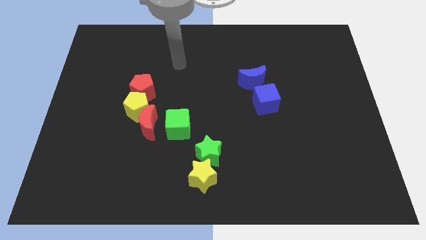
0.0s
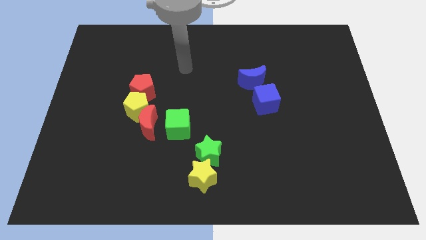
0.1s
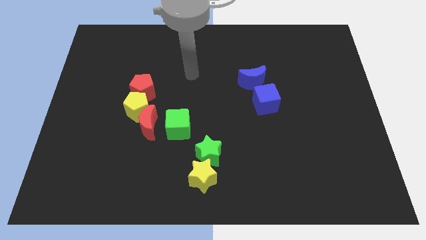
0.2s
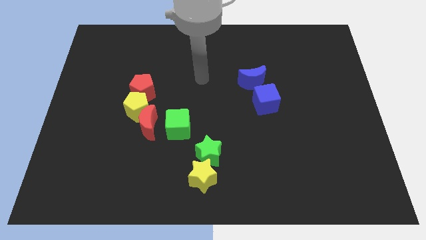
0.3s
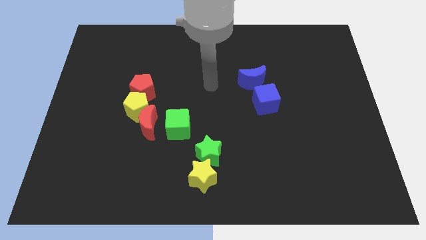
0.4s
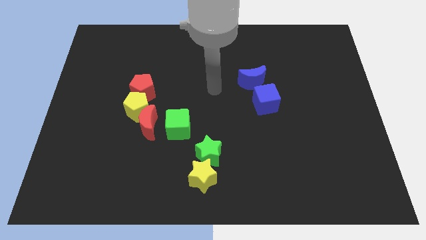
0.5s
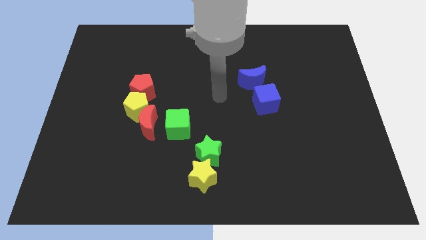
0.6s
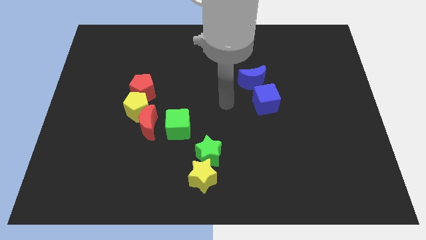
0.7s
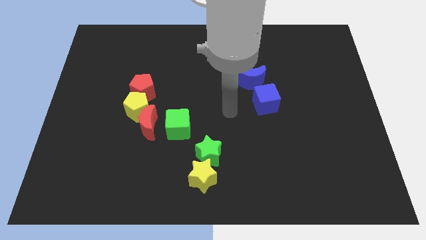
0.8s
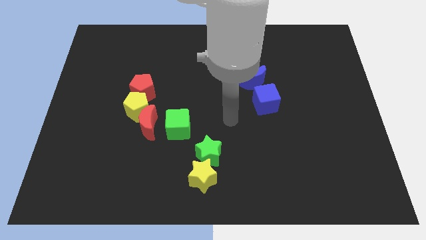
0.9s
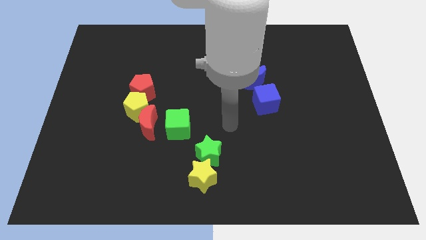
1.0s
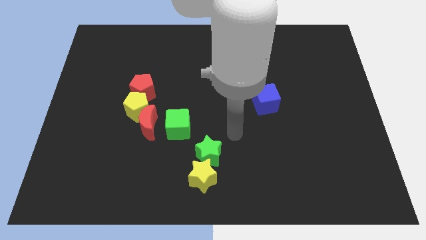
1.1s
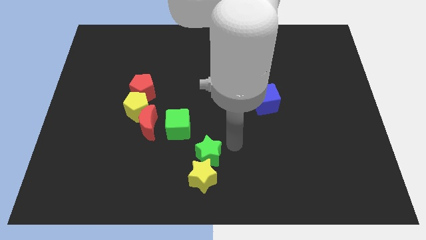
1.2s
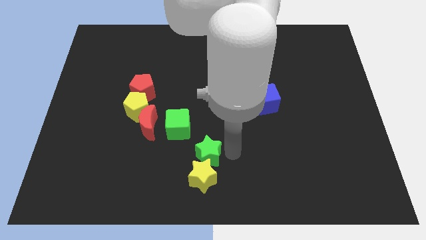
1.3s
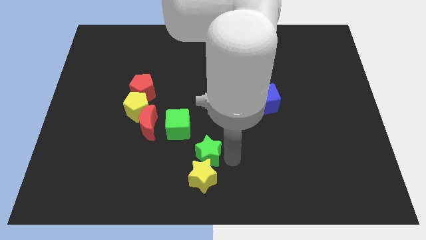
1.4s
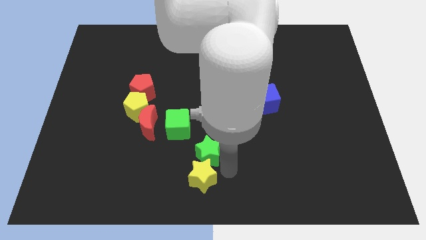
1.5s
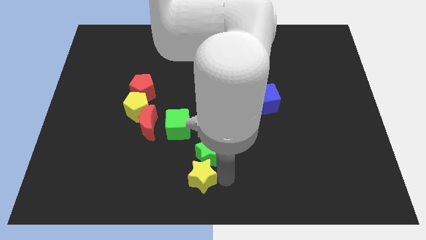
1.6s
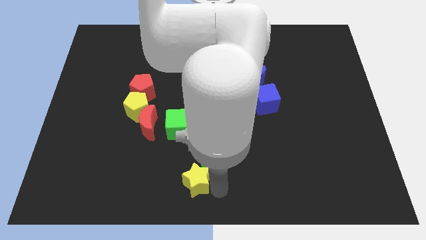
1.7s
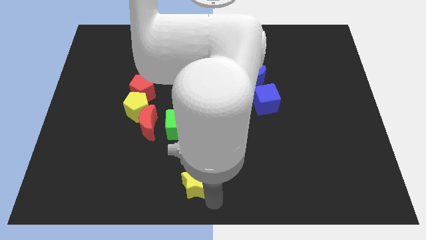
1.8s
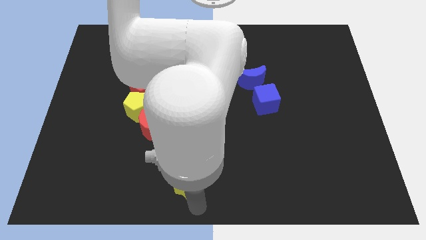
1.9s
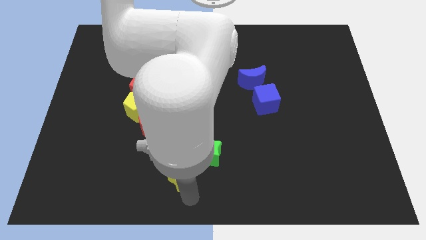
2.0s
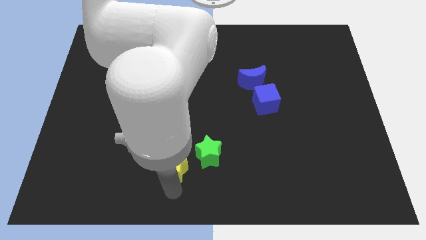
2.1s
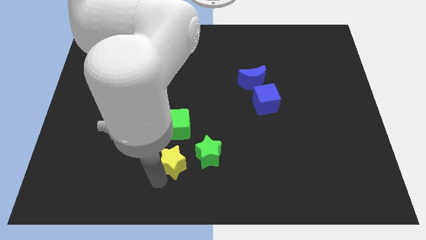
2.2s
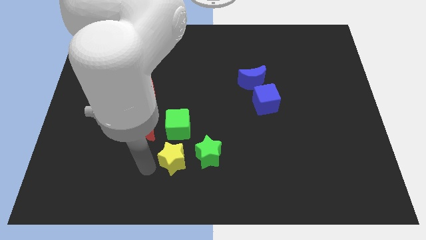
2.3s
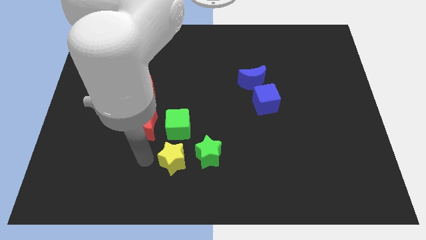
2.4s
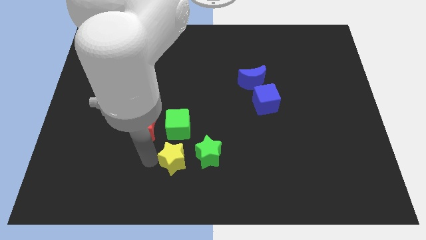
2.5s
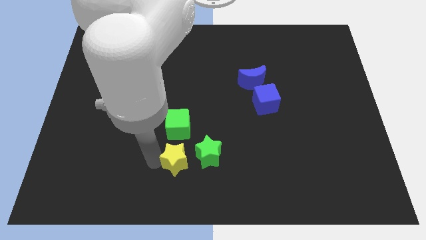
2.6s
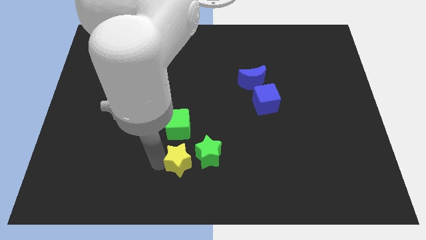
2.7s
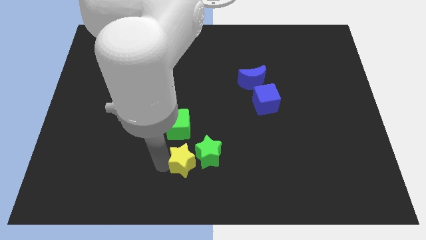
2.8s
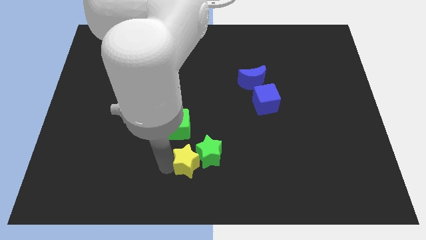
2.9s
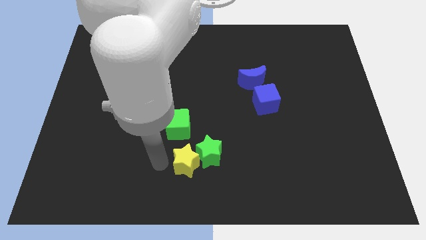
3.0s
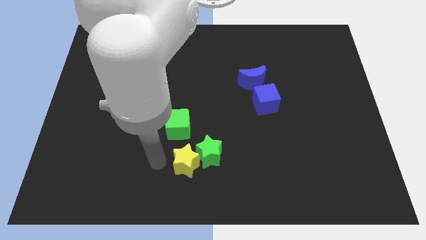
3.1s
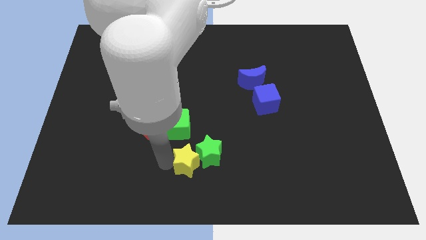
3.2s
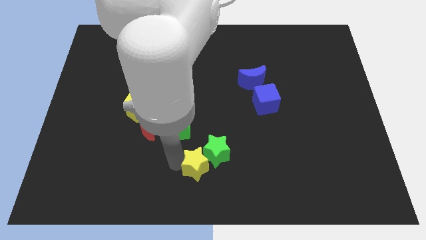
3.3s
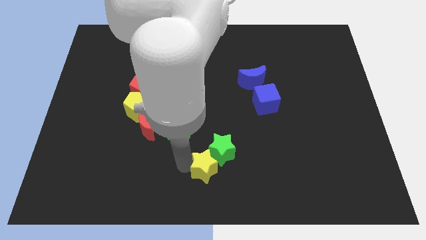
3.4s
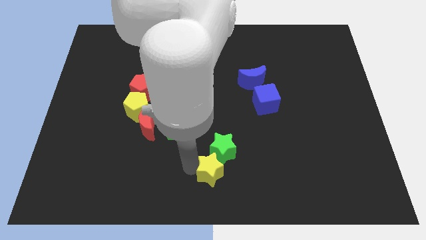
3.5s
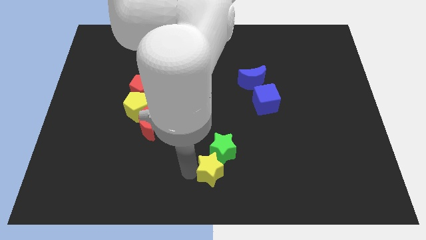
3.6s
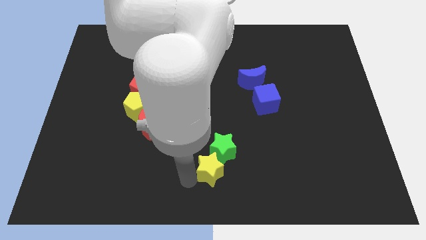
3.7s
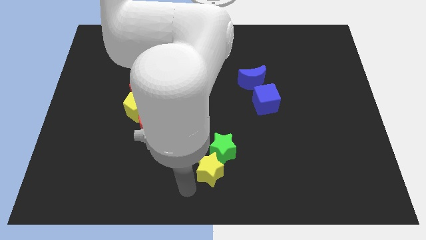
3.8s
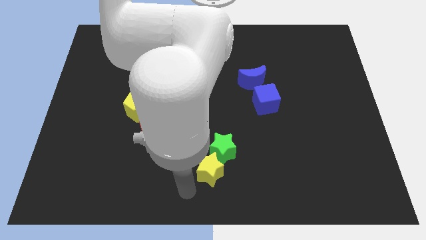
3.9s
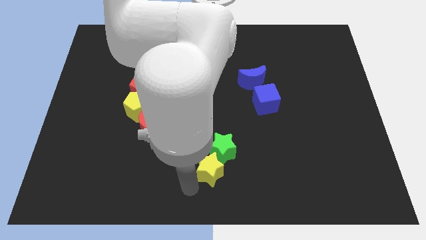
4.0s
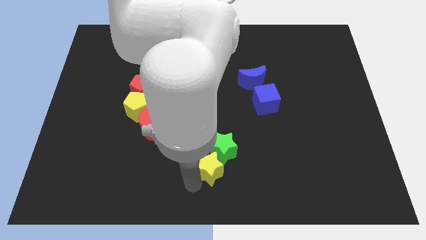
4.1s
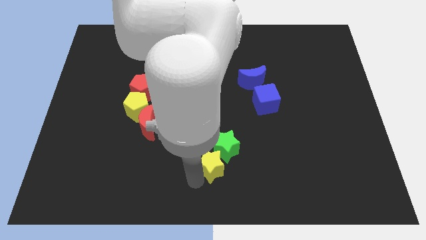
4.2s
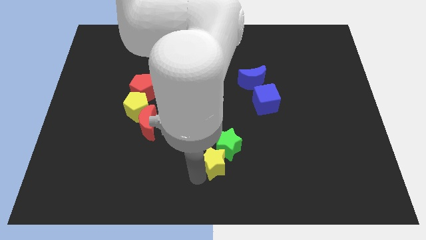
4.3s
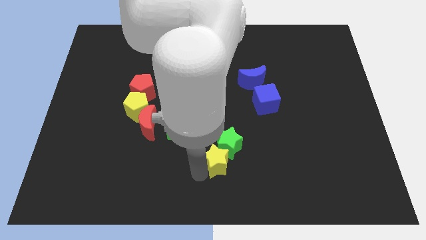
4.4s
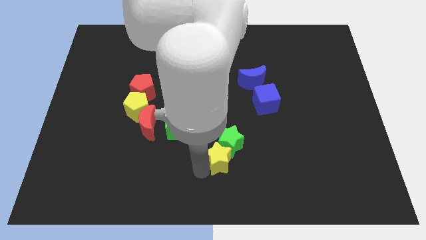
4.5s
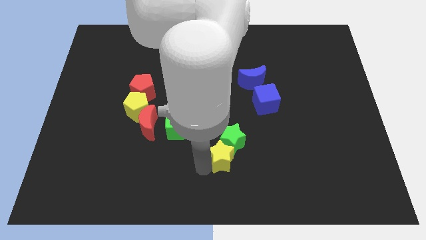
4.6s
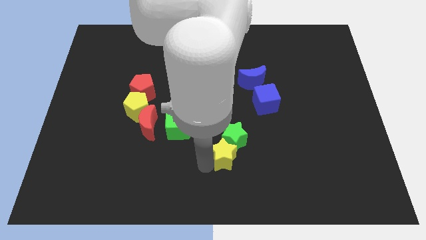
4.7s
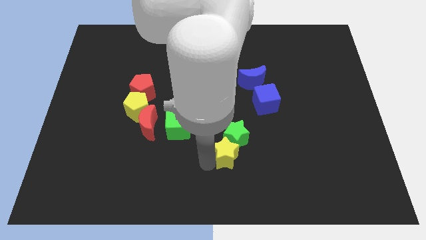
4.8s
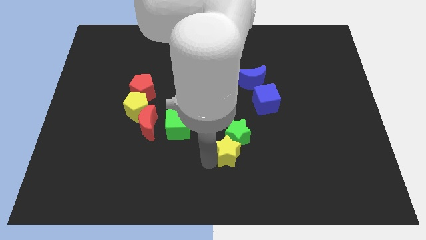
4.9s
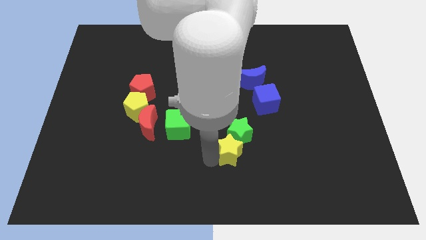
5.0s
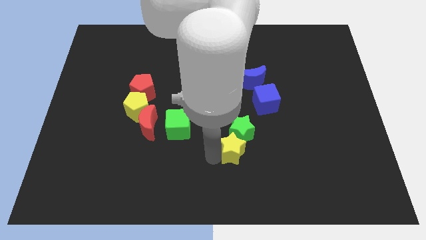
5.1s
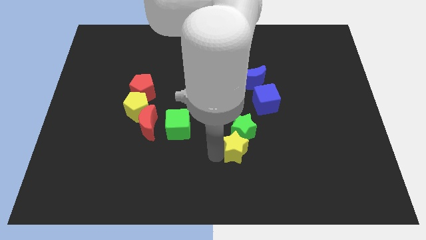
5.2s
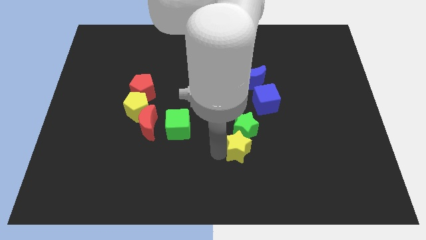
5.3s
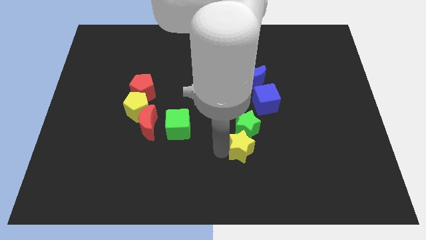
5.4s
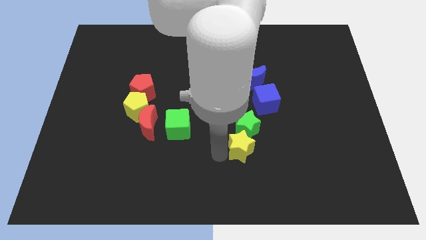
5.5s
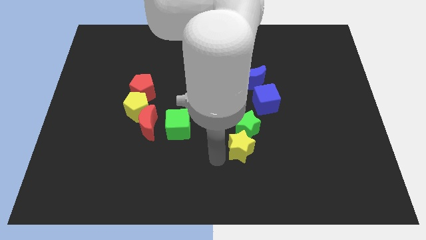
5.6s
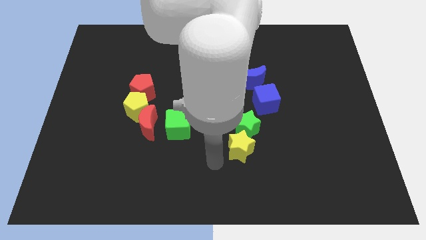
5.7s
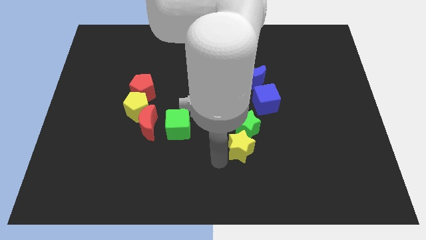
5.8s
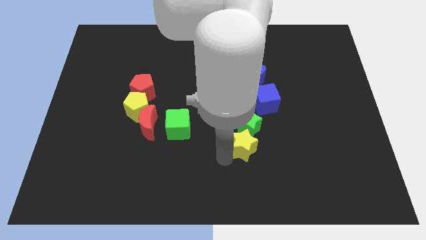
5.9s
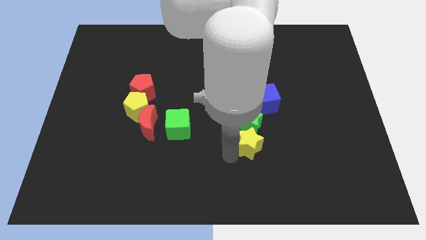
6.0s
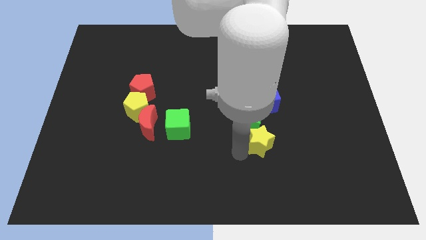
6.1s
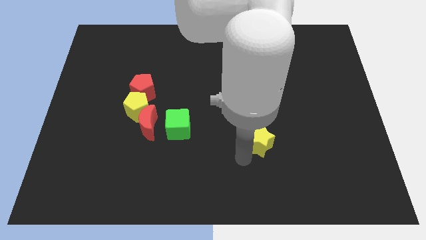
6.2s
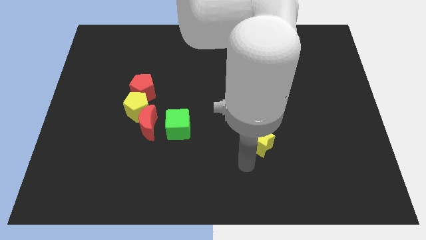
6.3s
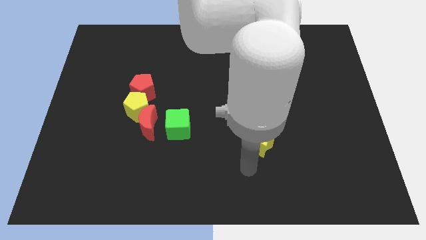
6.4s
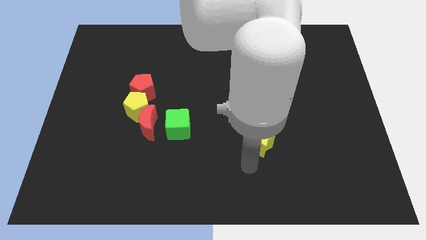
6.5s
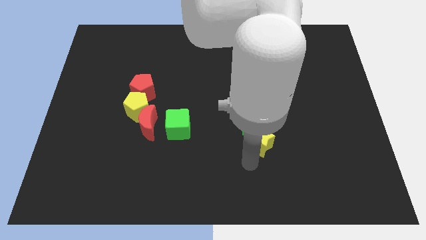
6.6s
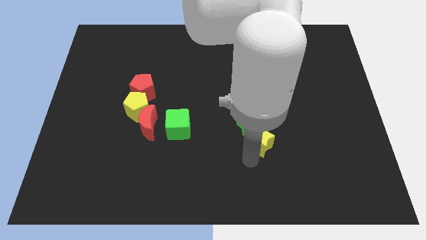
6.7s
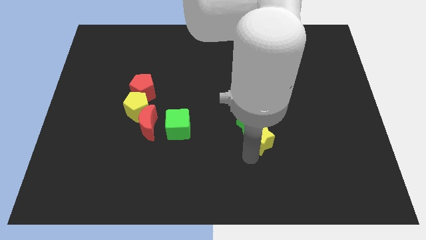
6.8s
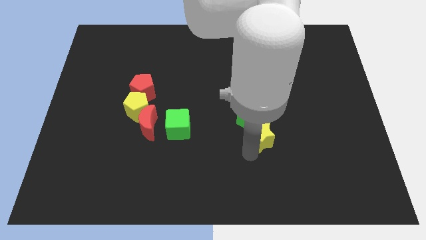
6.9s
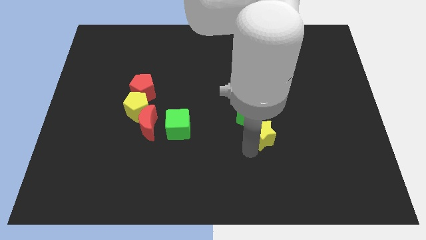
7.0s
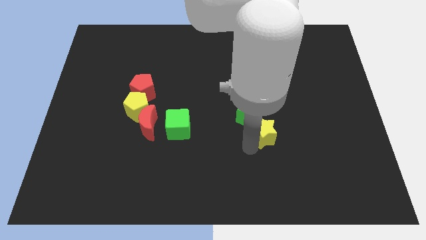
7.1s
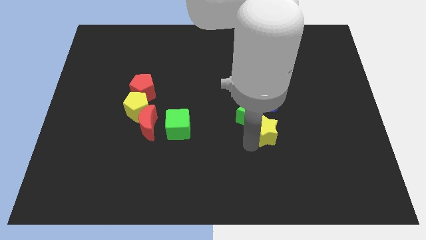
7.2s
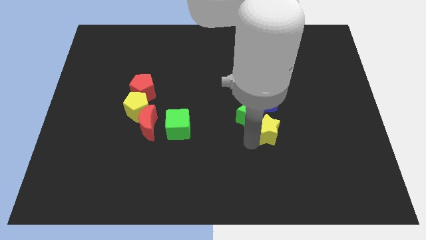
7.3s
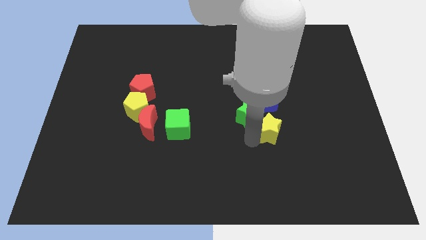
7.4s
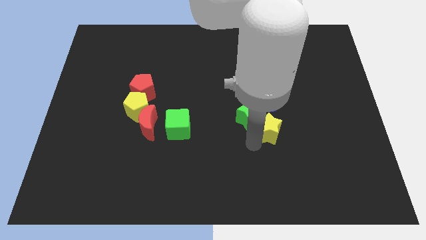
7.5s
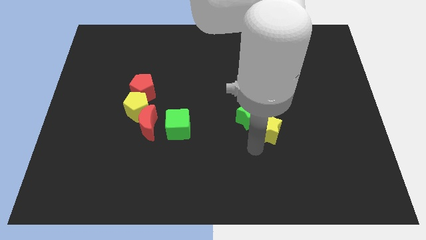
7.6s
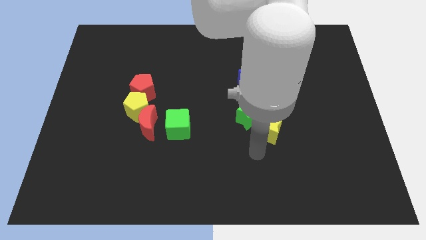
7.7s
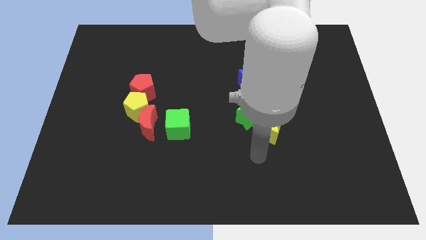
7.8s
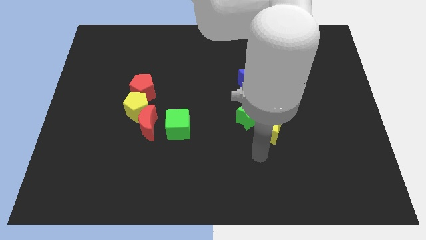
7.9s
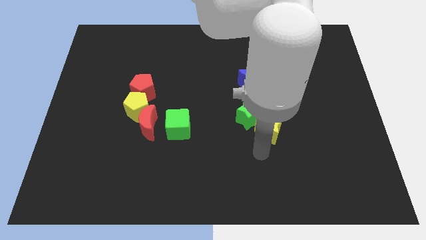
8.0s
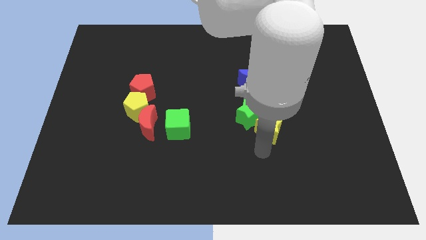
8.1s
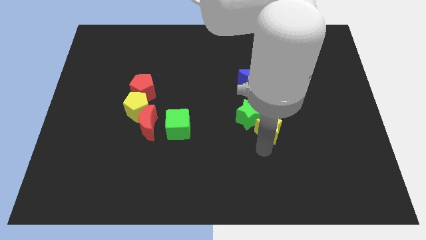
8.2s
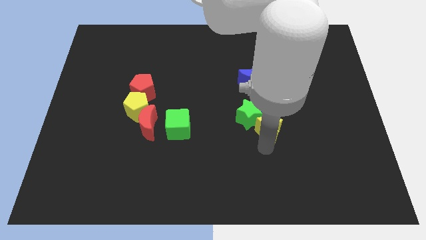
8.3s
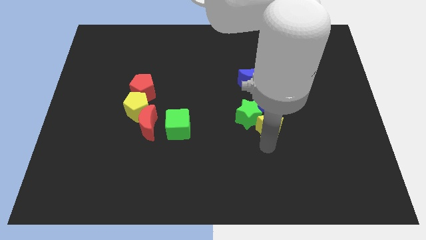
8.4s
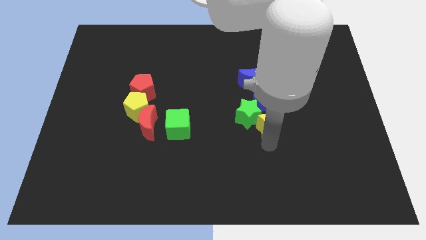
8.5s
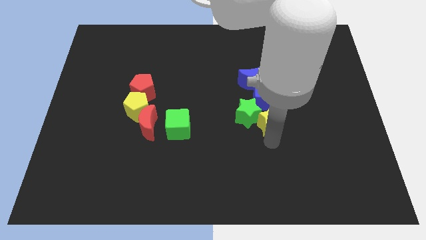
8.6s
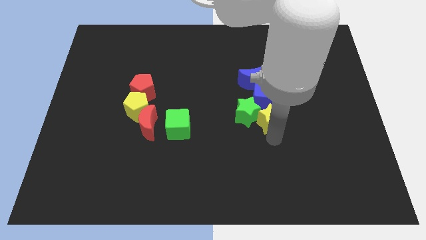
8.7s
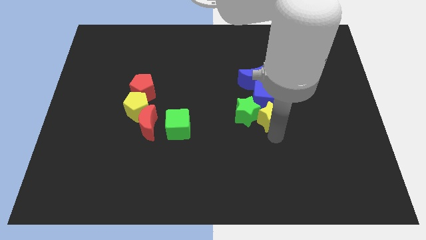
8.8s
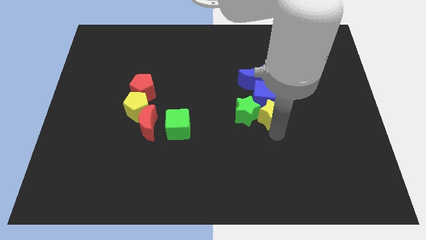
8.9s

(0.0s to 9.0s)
move the yellow star close to the blue cube
